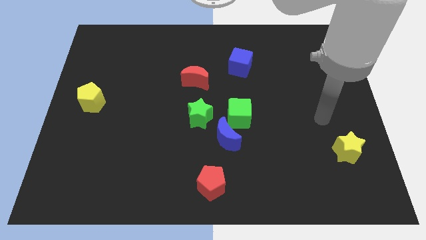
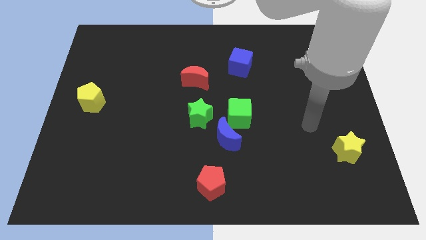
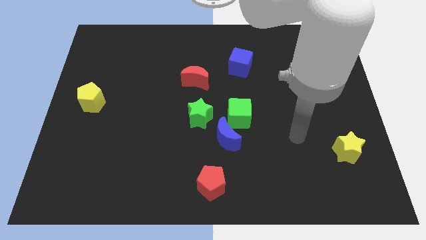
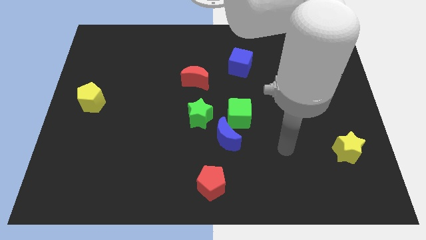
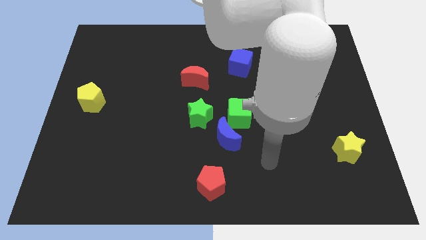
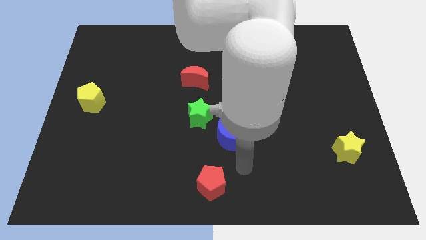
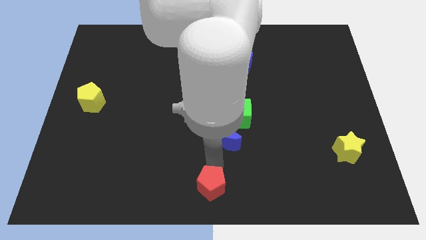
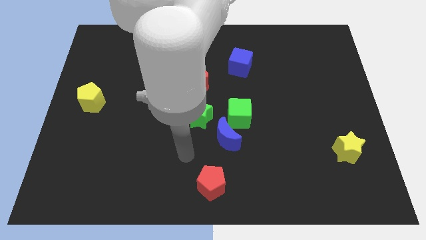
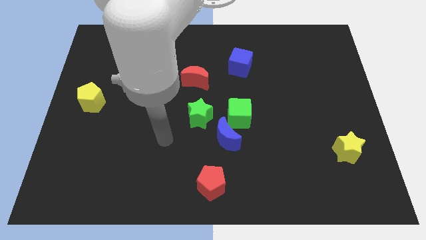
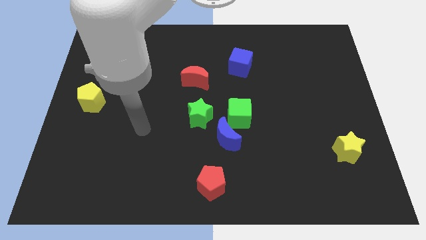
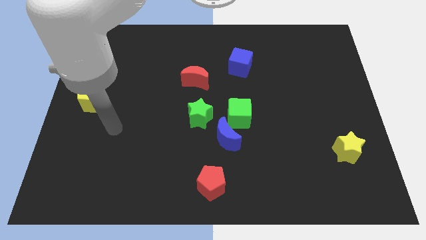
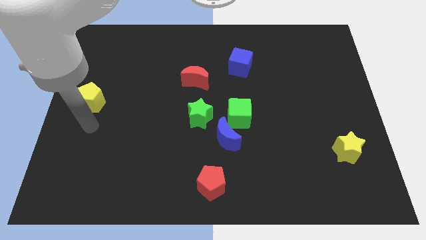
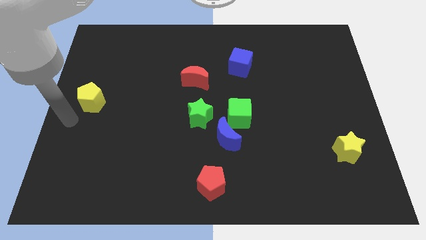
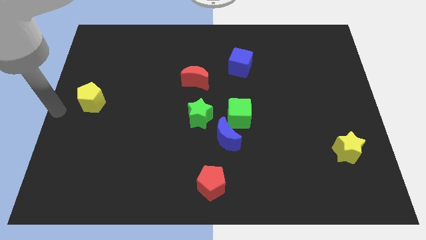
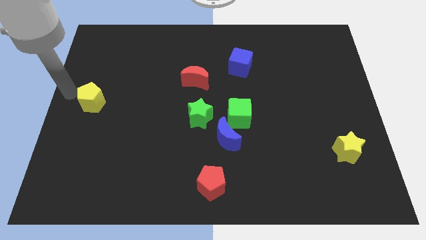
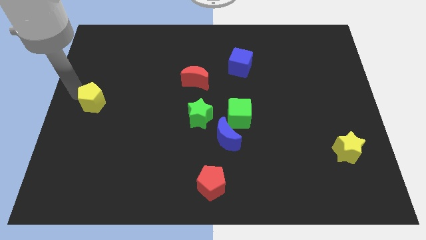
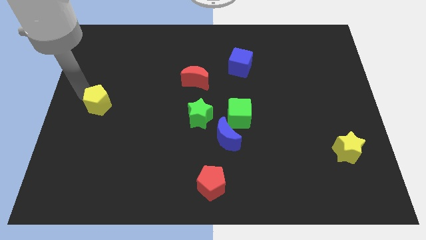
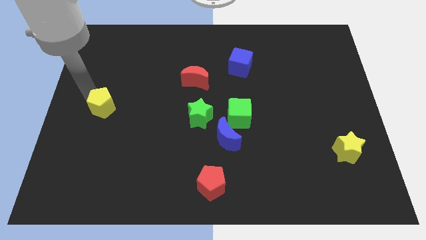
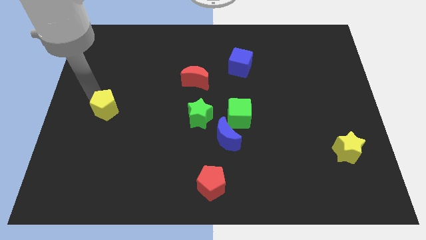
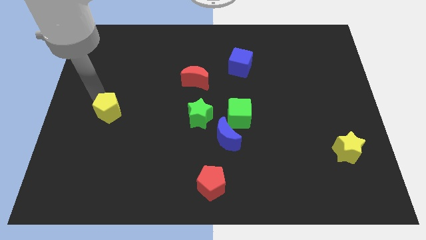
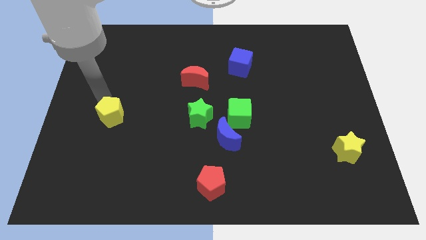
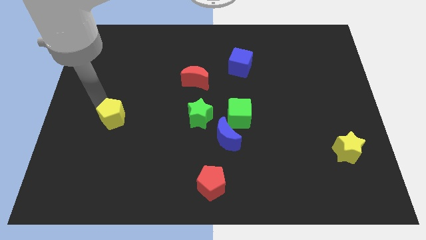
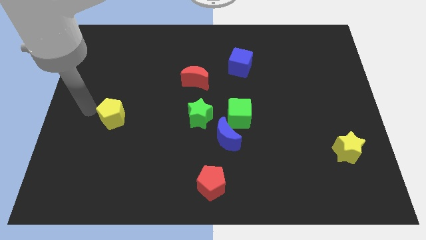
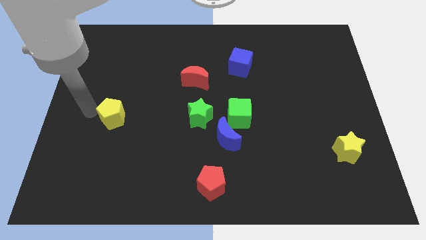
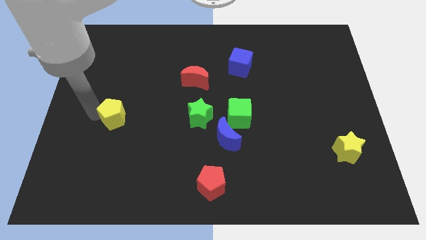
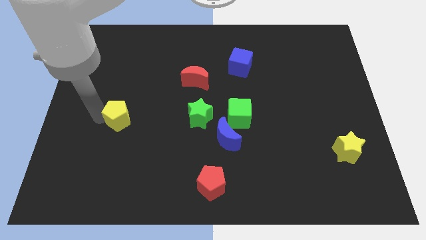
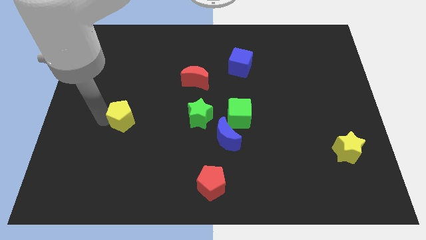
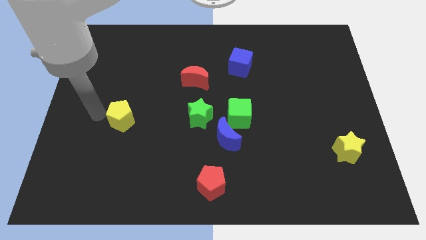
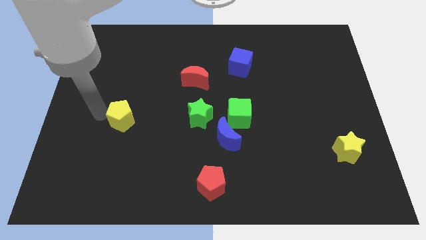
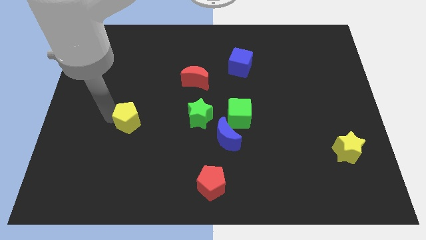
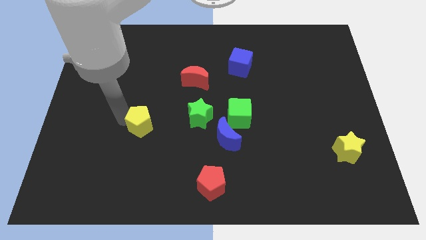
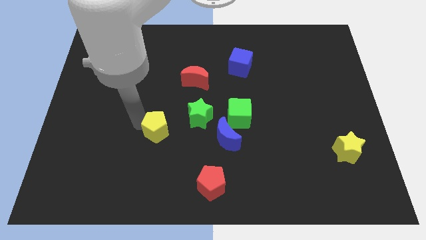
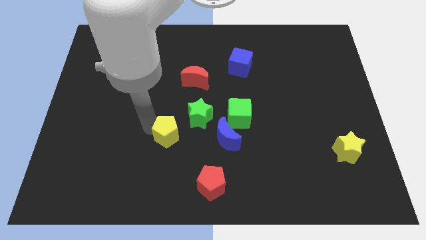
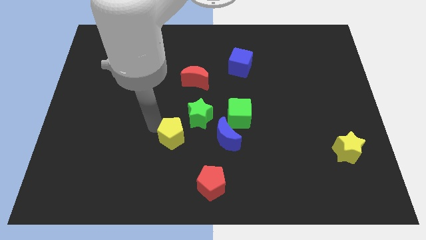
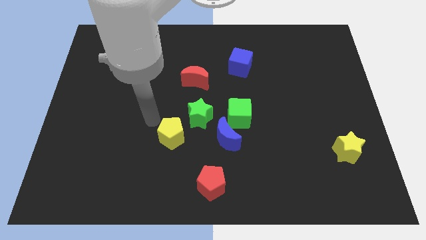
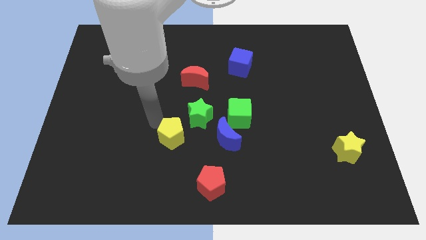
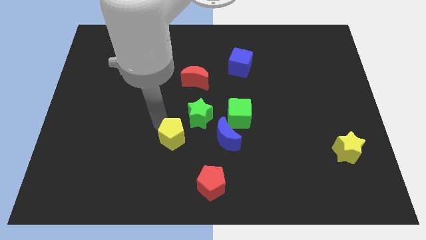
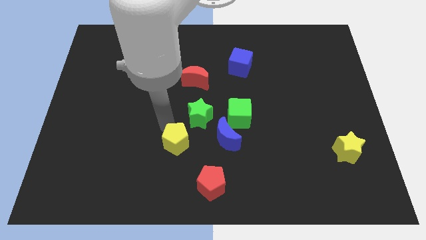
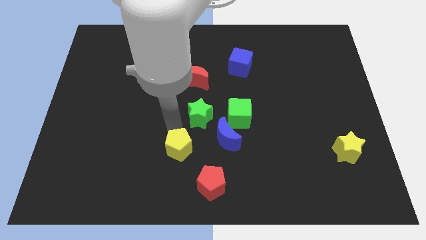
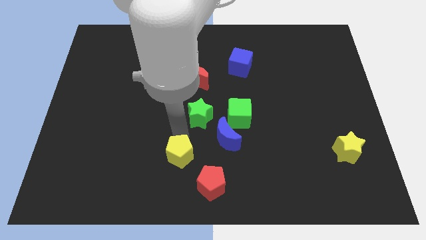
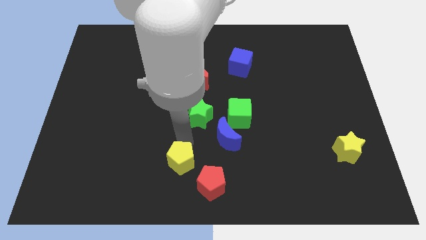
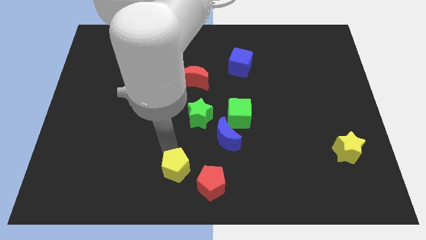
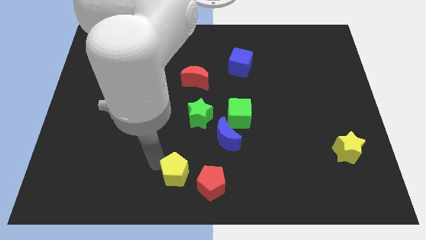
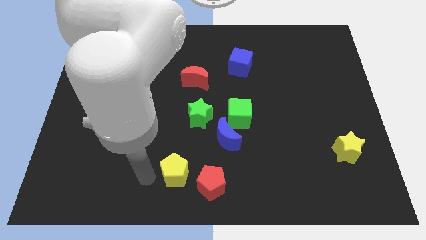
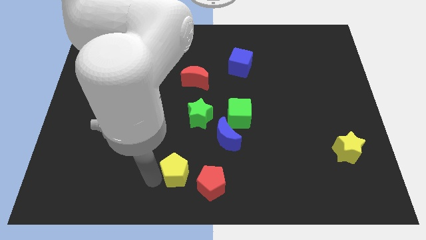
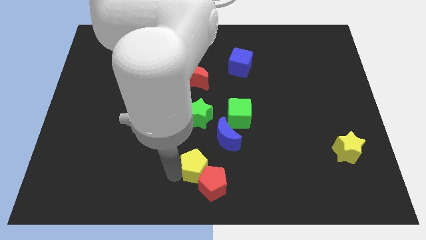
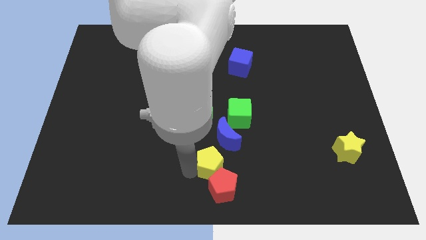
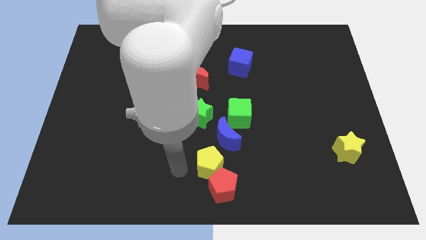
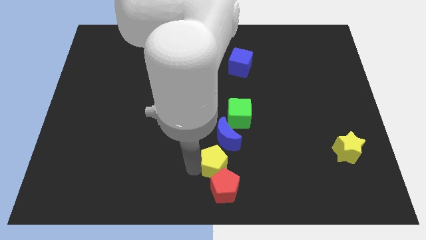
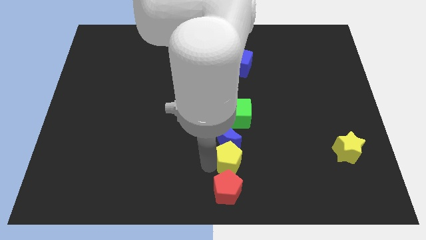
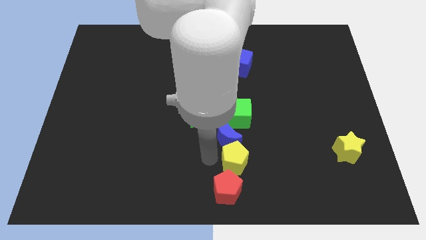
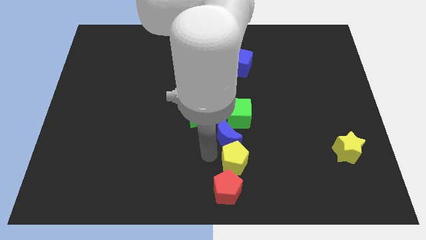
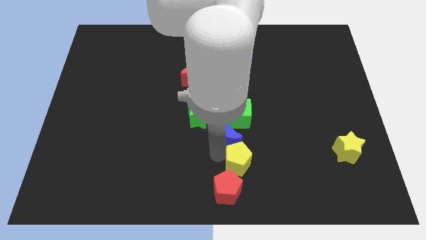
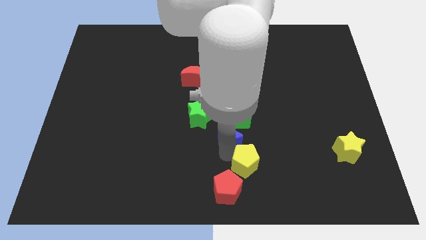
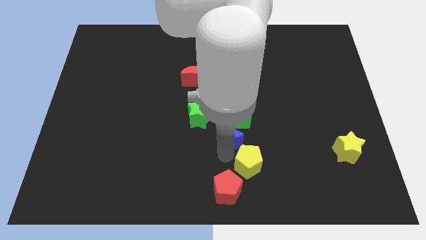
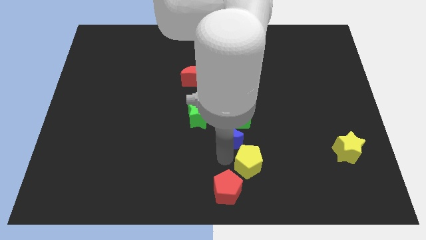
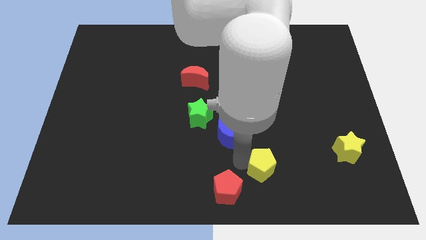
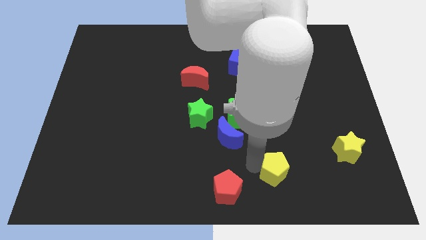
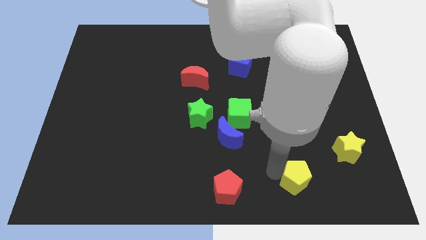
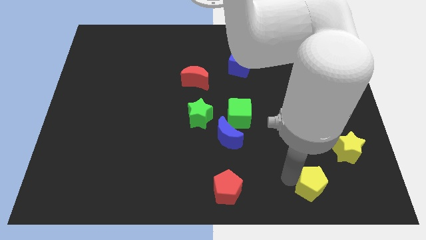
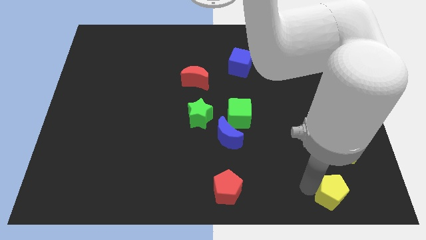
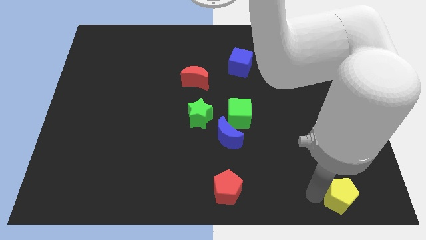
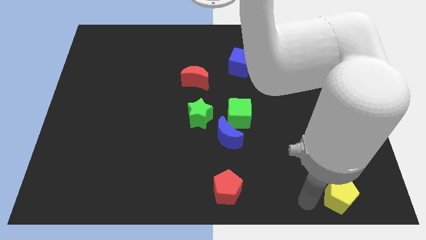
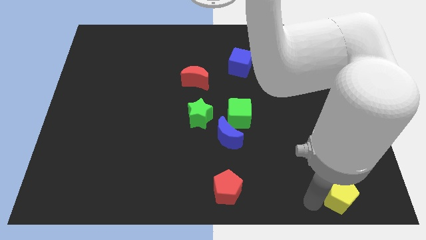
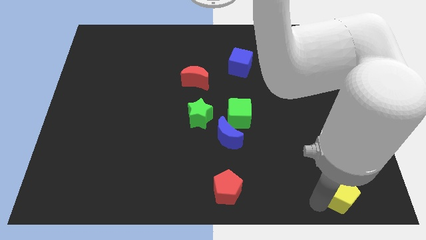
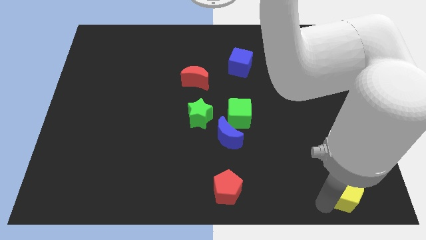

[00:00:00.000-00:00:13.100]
move the yellow pentagon to the bottom right of the board

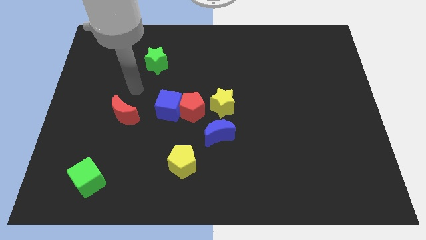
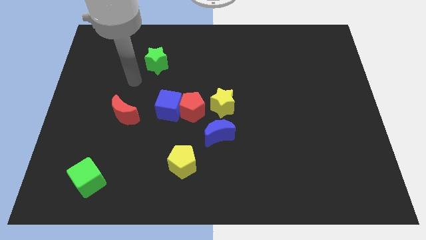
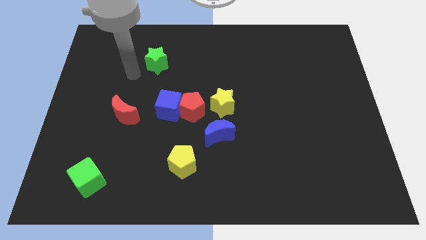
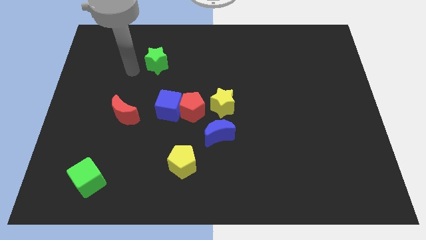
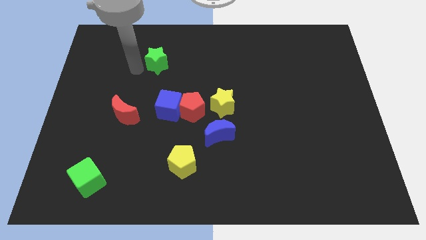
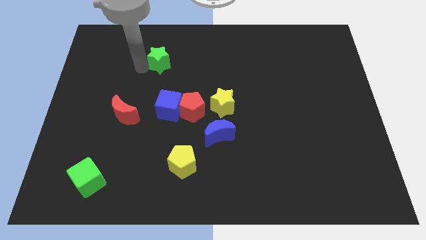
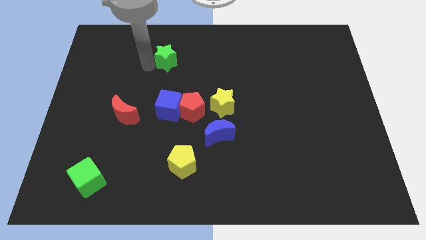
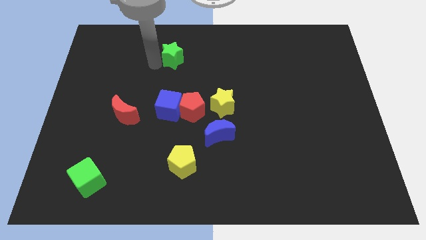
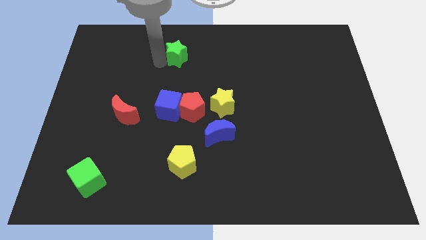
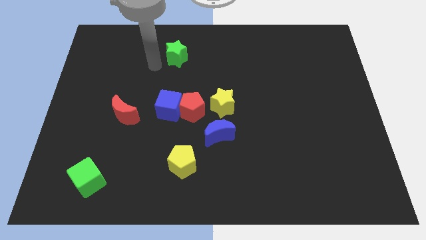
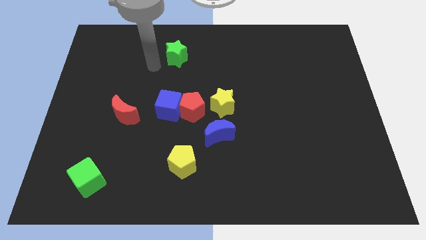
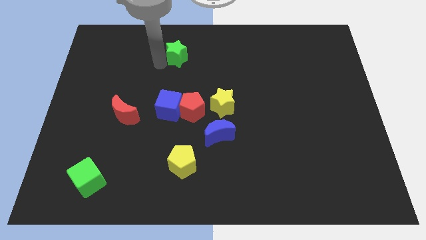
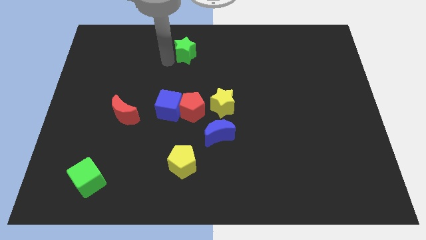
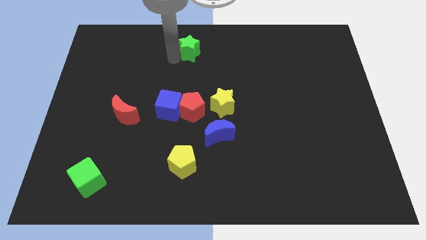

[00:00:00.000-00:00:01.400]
move the green star to the towards your base
